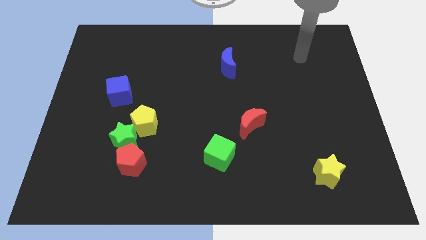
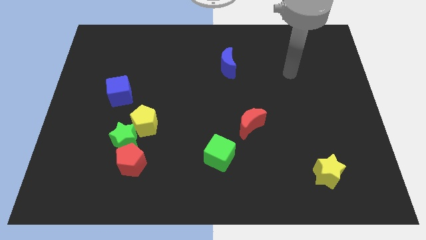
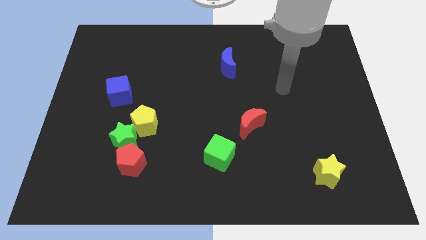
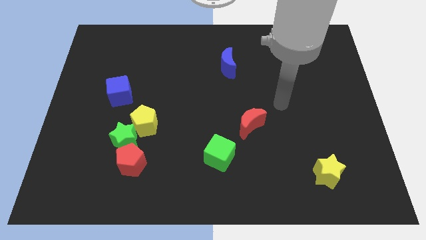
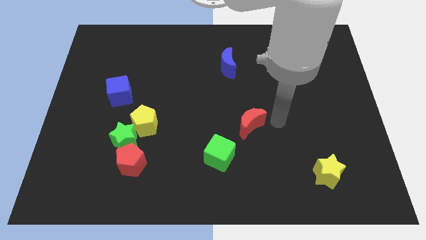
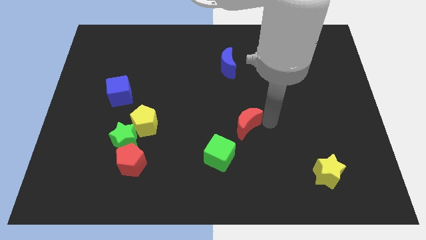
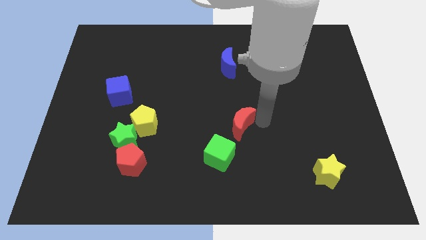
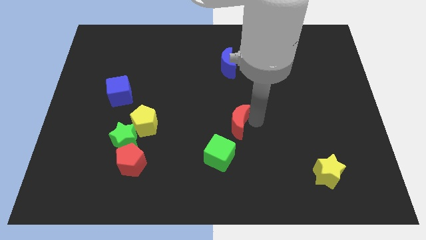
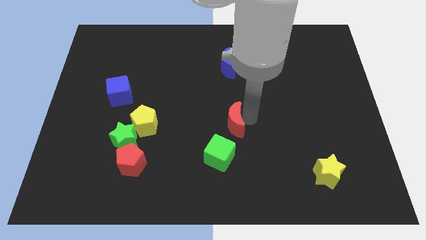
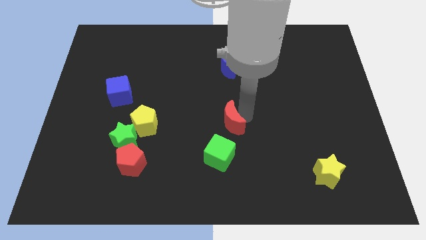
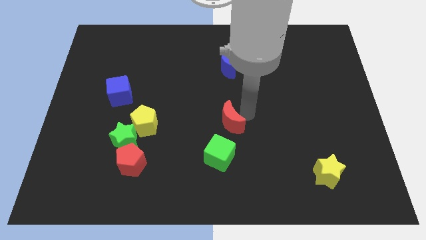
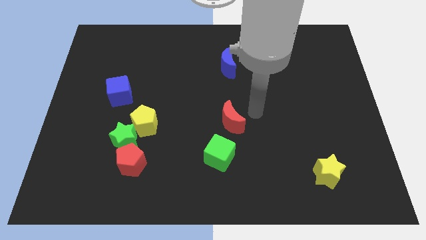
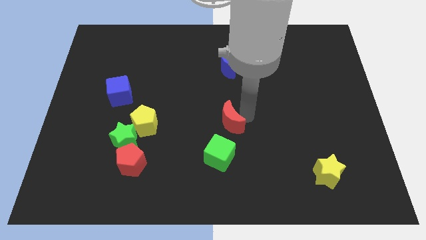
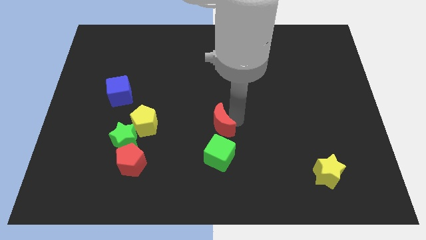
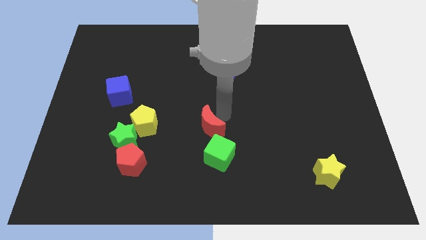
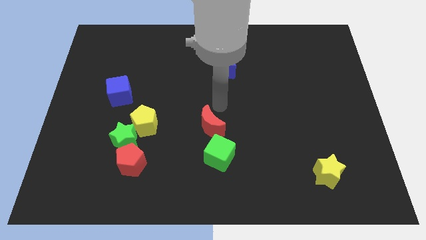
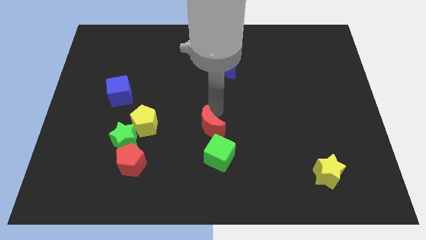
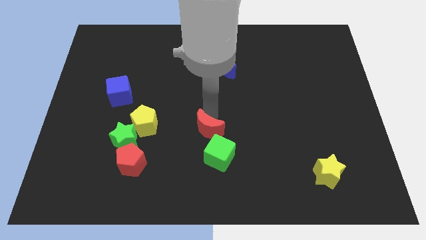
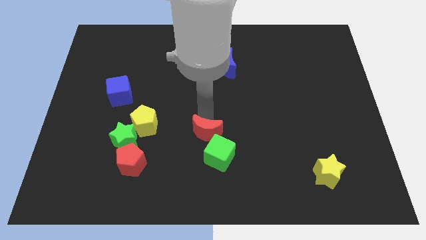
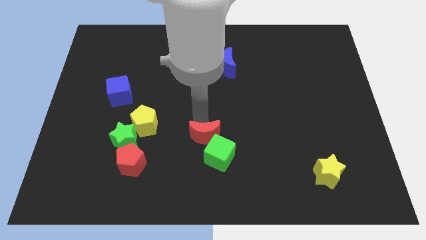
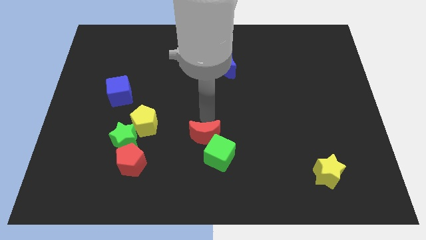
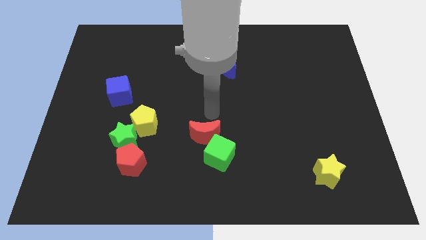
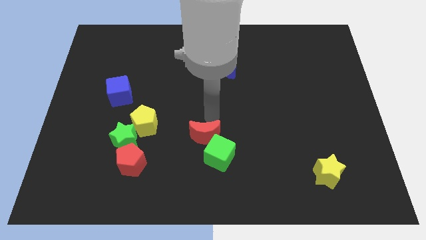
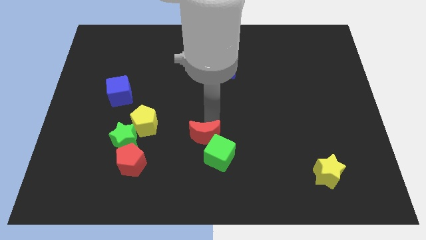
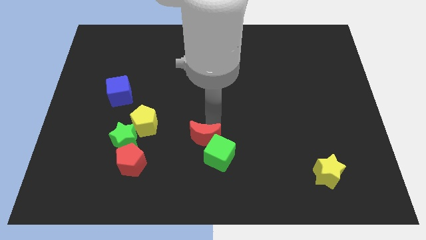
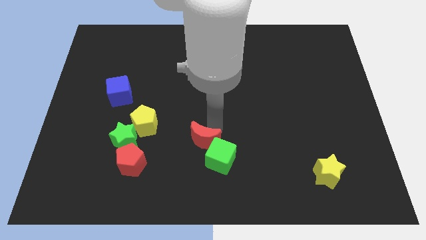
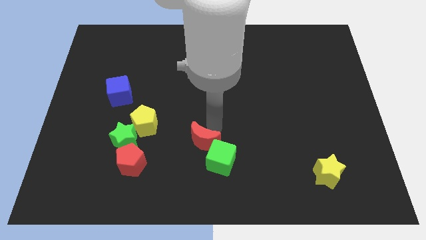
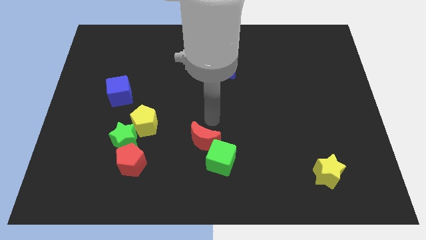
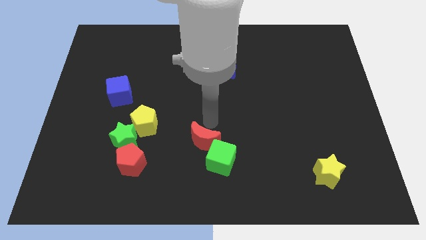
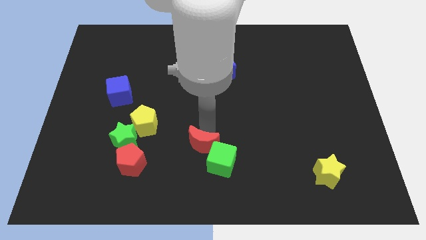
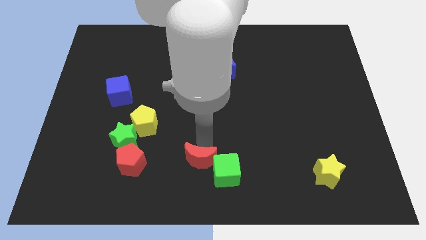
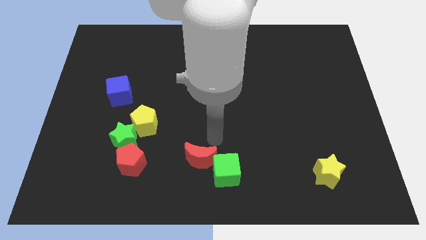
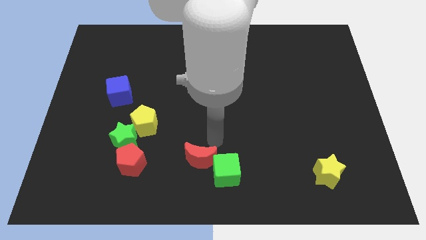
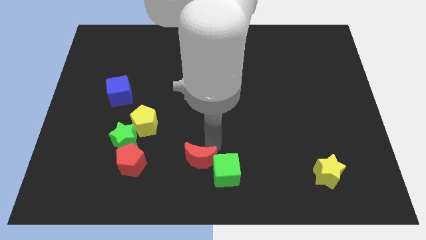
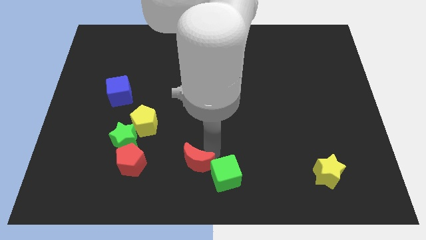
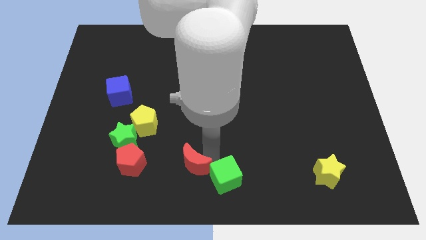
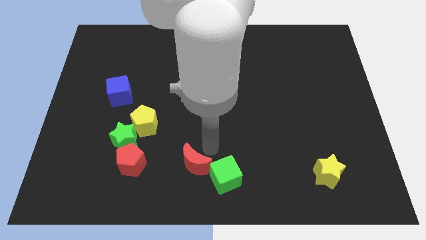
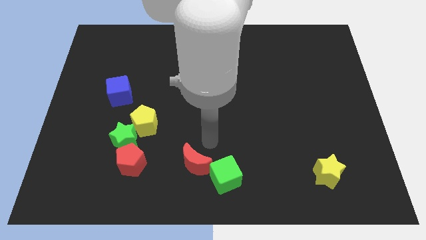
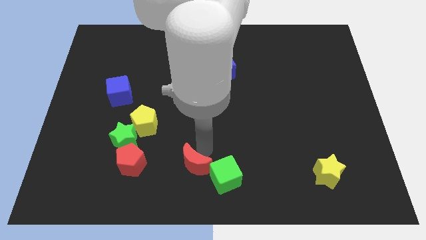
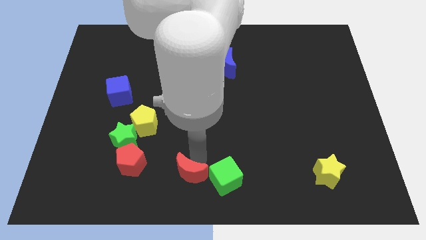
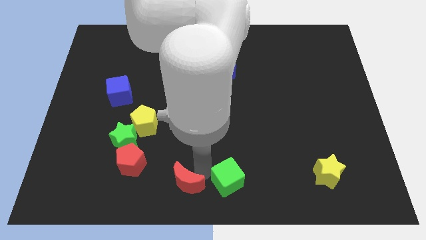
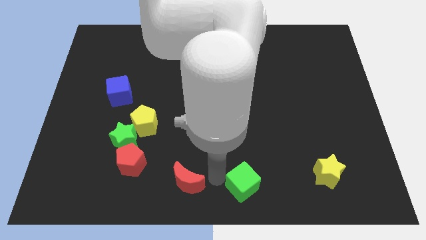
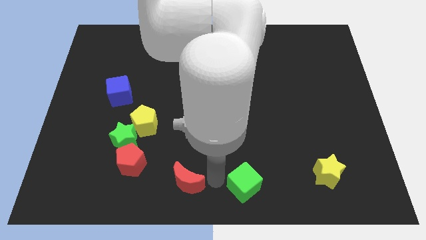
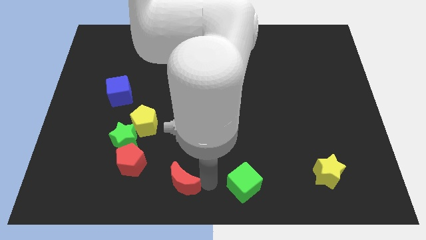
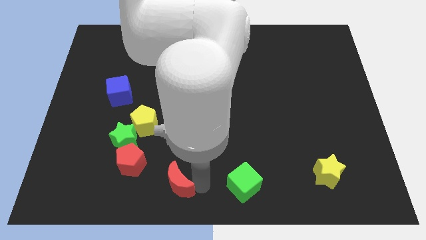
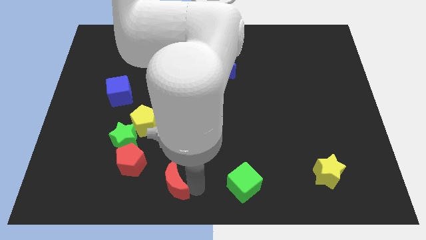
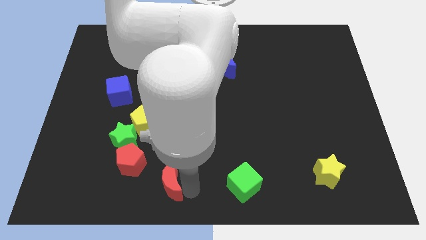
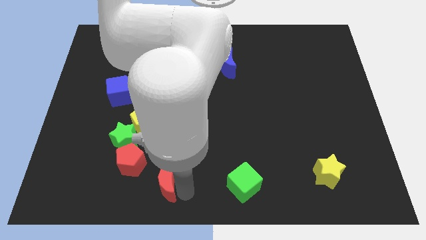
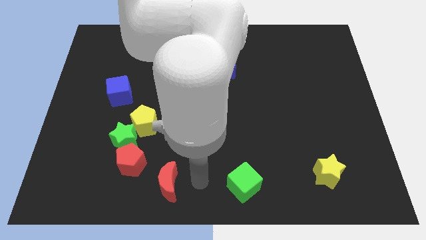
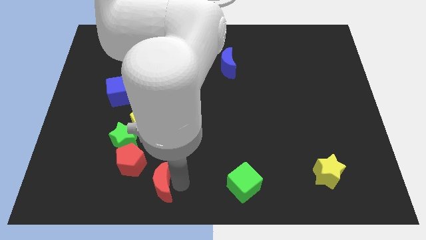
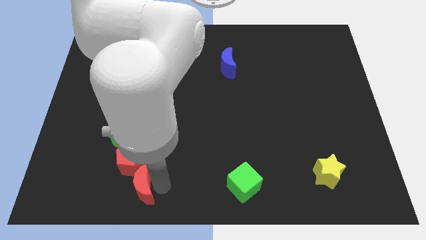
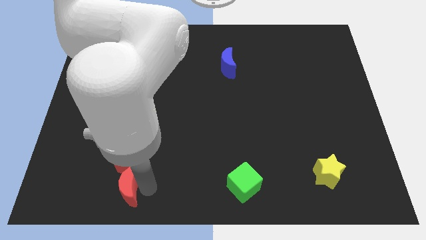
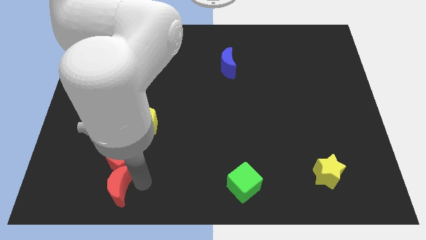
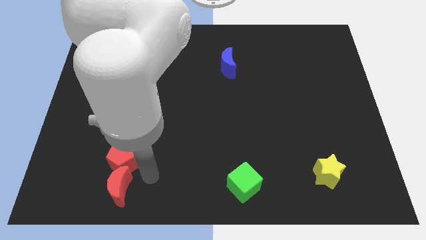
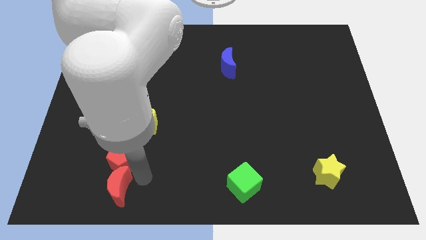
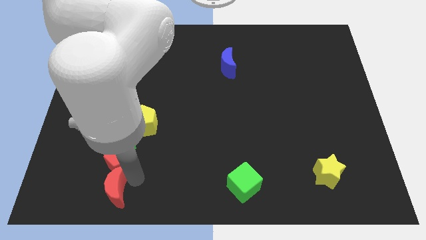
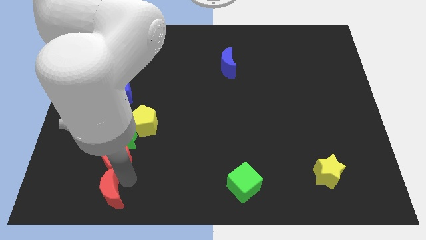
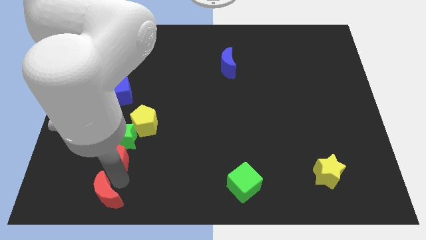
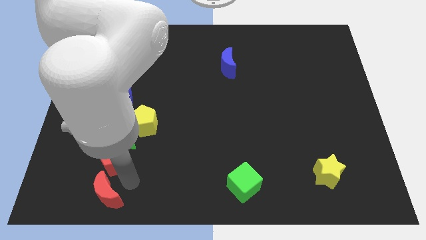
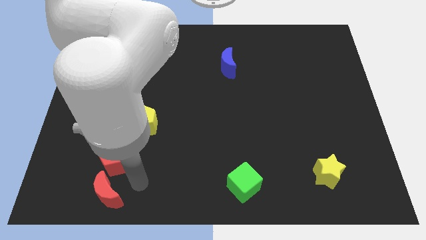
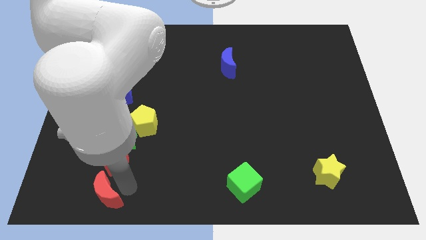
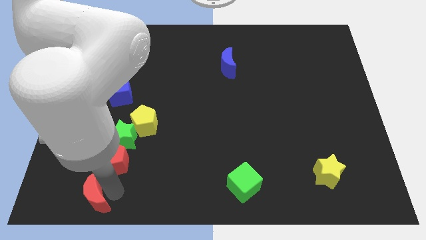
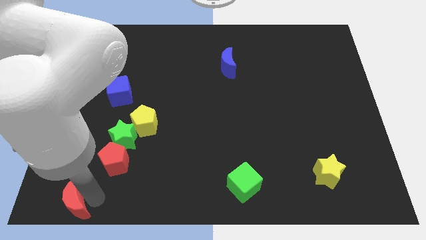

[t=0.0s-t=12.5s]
push the red moon to the lower left corner
